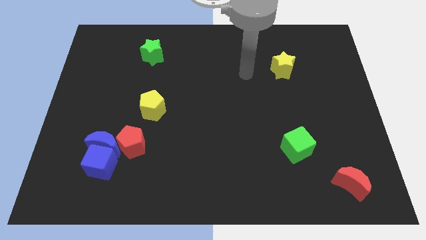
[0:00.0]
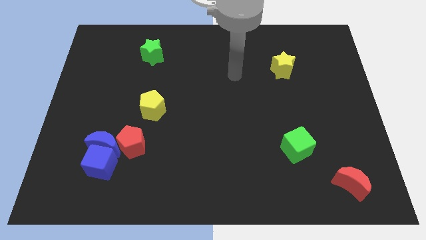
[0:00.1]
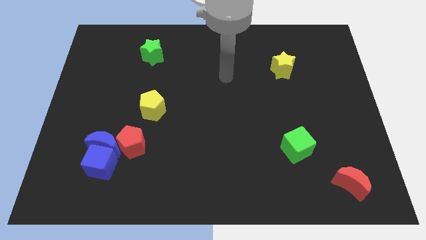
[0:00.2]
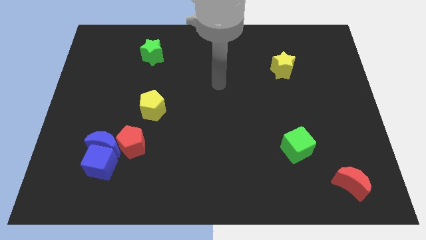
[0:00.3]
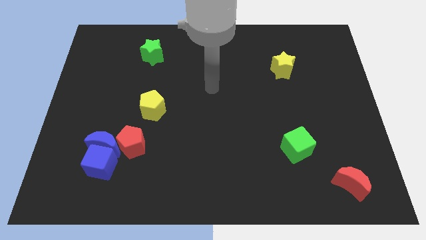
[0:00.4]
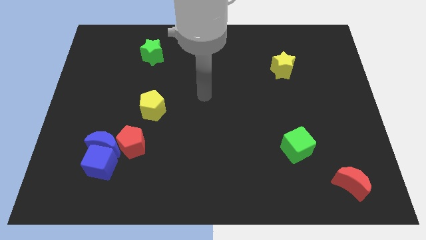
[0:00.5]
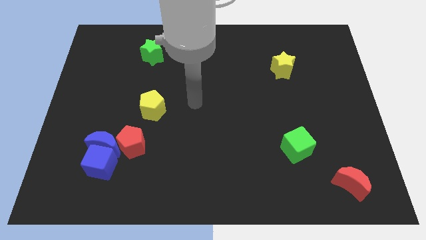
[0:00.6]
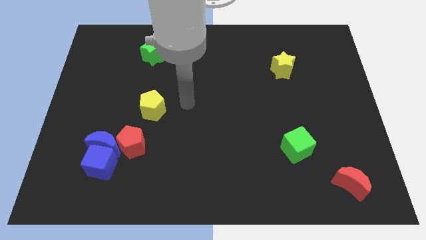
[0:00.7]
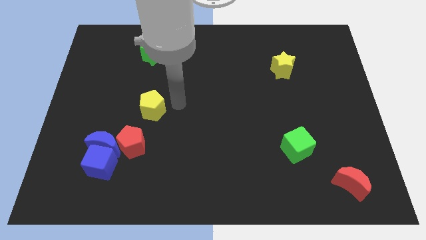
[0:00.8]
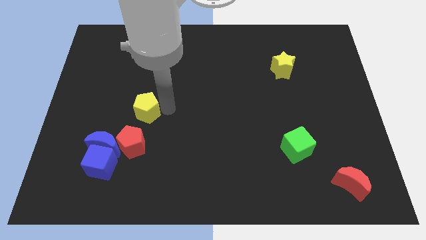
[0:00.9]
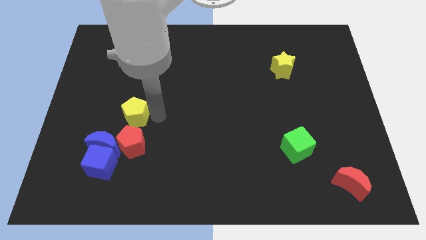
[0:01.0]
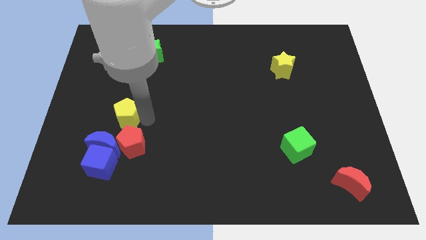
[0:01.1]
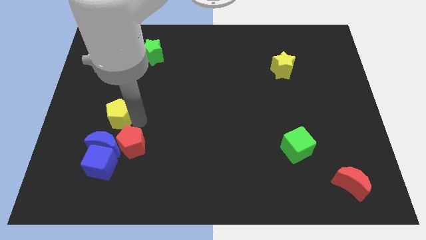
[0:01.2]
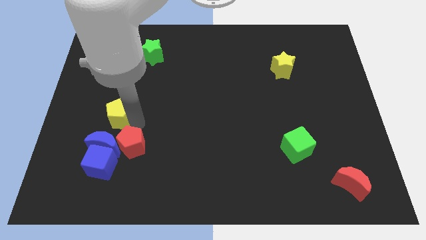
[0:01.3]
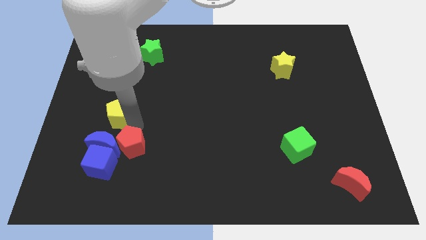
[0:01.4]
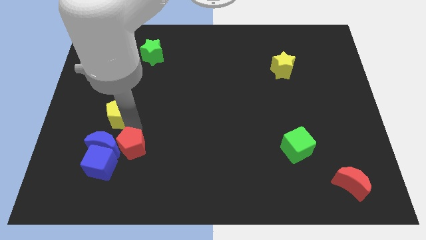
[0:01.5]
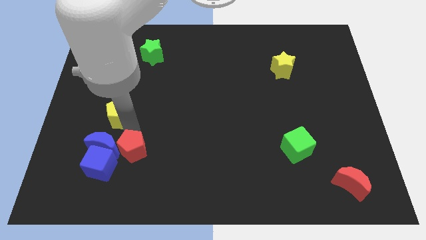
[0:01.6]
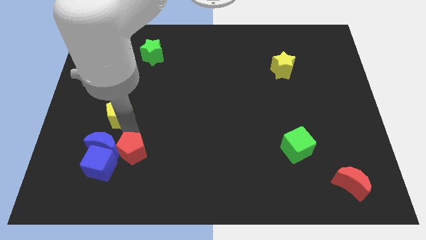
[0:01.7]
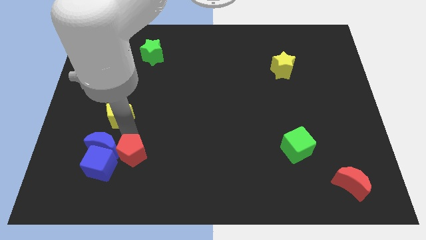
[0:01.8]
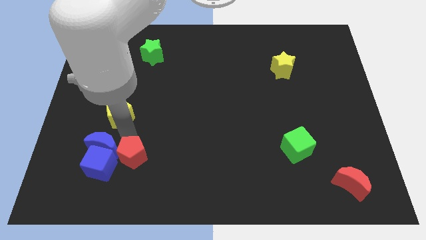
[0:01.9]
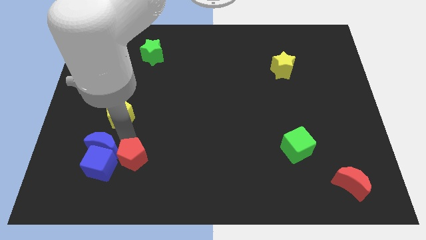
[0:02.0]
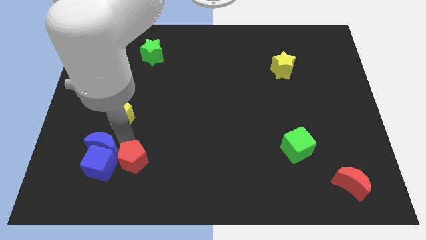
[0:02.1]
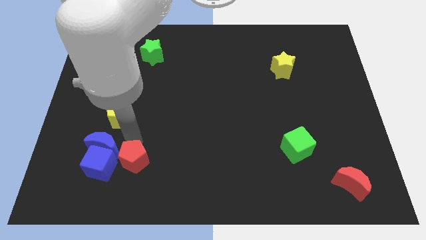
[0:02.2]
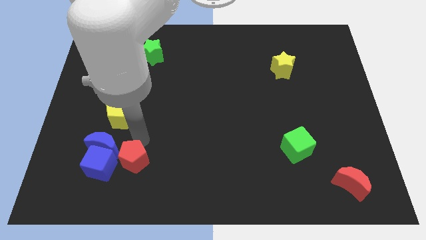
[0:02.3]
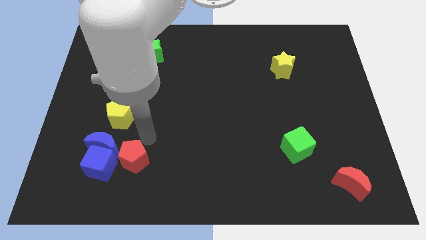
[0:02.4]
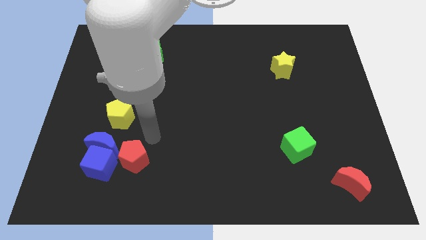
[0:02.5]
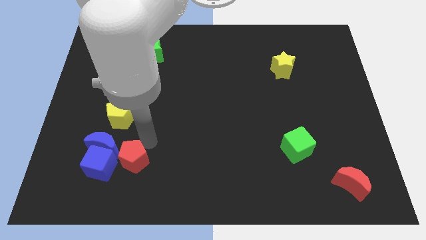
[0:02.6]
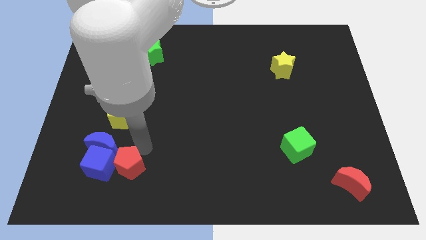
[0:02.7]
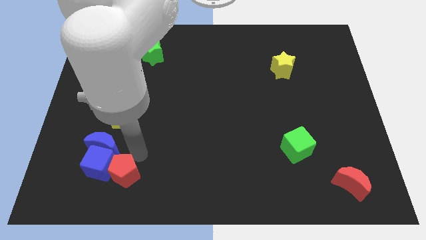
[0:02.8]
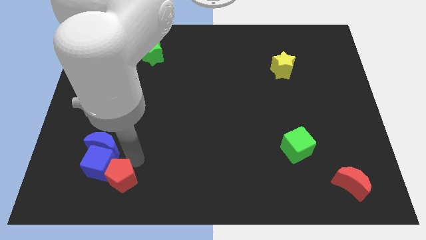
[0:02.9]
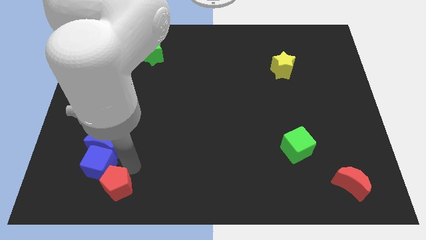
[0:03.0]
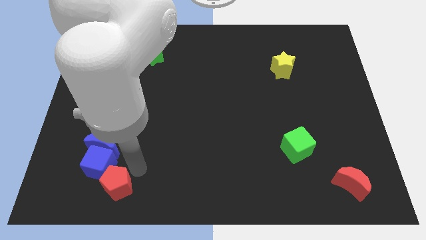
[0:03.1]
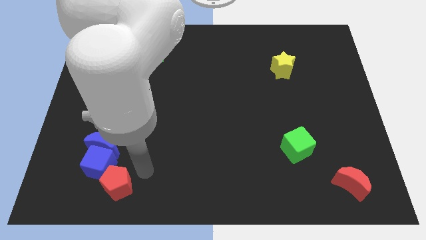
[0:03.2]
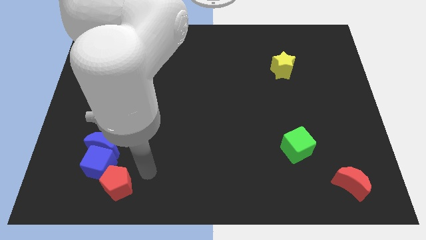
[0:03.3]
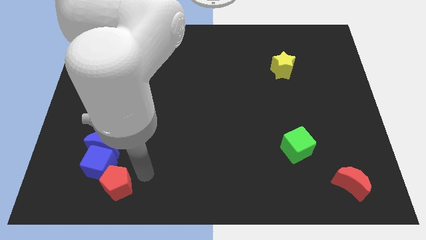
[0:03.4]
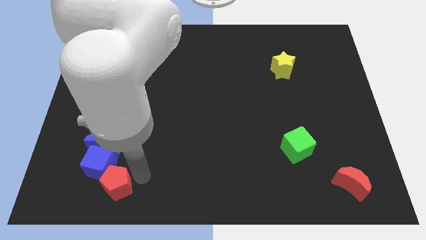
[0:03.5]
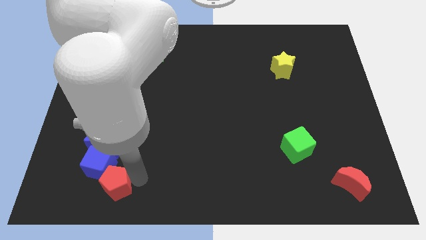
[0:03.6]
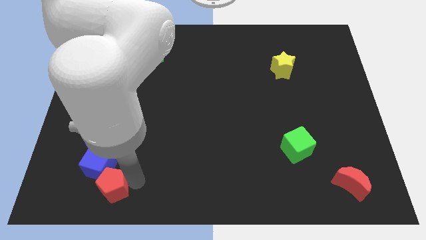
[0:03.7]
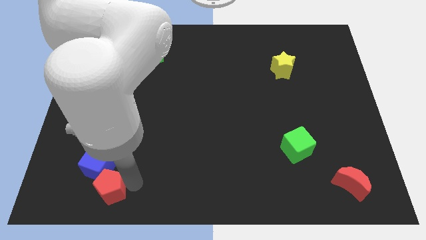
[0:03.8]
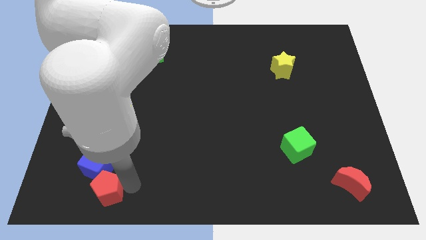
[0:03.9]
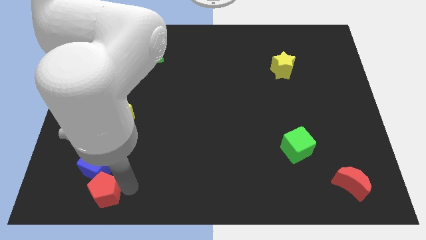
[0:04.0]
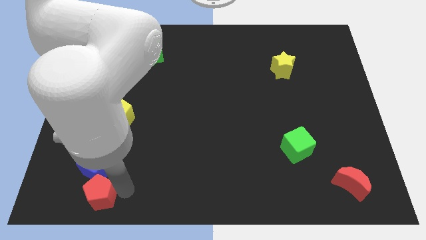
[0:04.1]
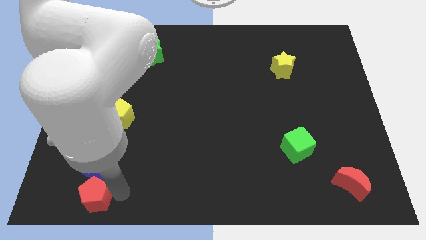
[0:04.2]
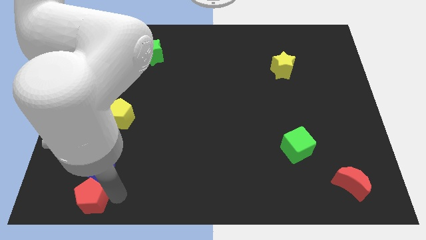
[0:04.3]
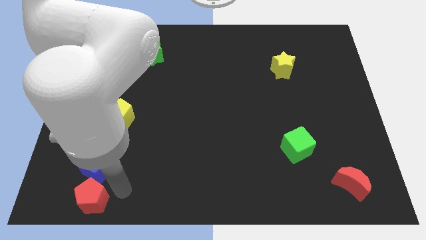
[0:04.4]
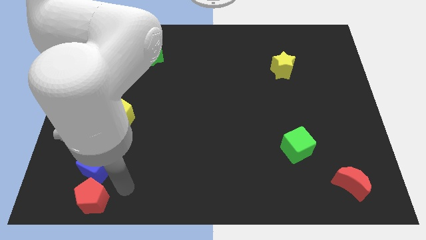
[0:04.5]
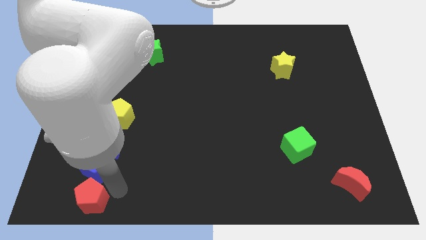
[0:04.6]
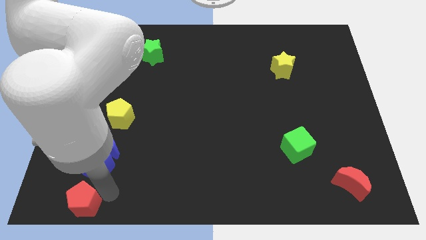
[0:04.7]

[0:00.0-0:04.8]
slide the red pentagon to the bottom left

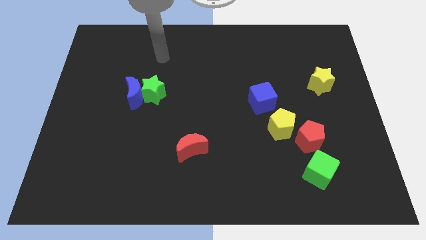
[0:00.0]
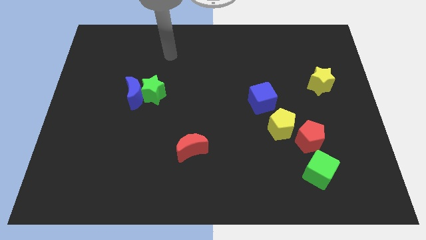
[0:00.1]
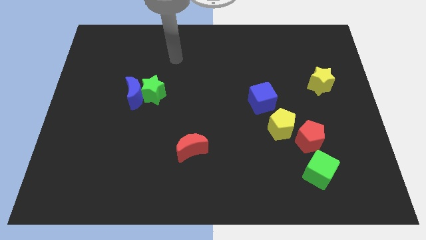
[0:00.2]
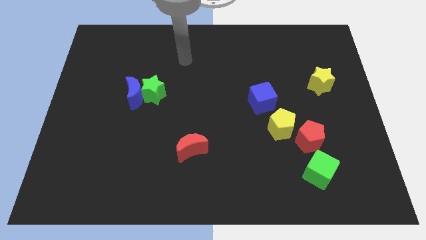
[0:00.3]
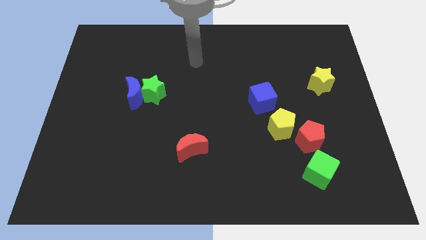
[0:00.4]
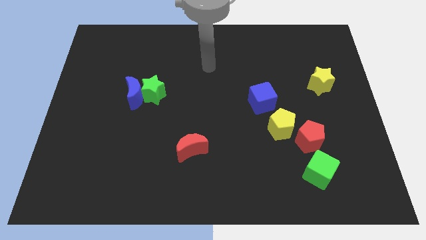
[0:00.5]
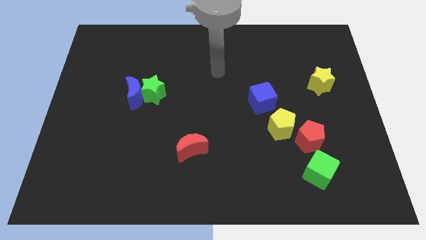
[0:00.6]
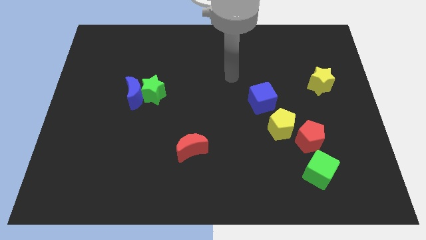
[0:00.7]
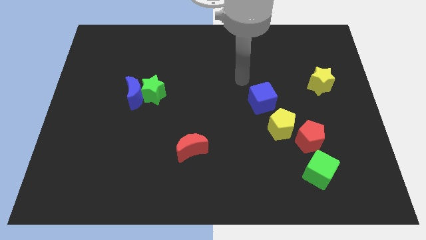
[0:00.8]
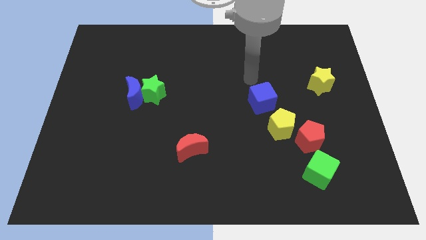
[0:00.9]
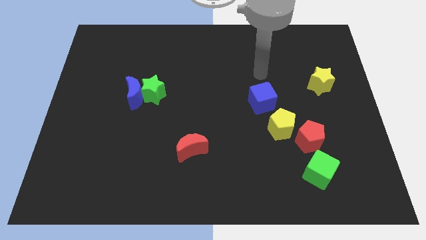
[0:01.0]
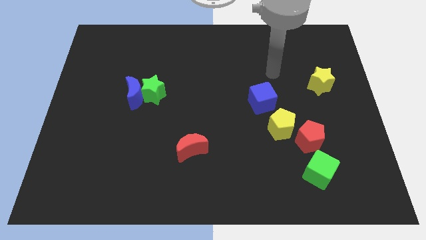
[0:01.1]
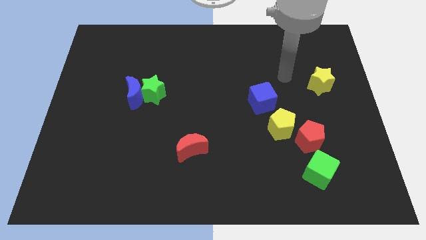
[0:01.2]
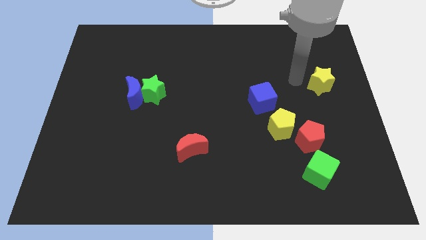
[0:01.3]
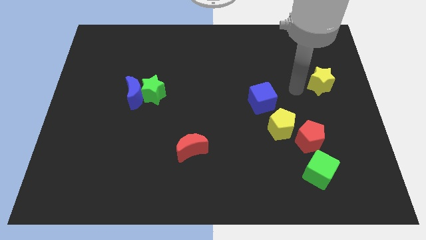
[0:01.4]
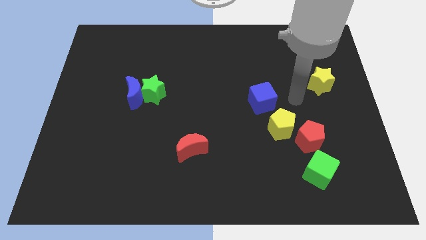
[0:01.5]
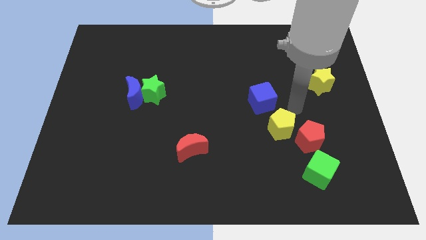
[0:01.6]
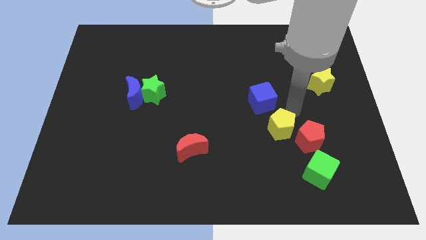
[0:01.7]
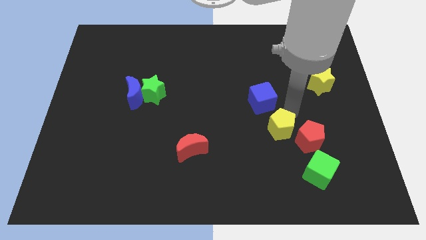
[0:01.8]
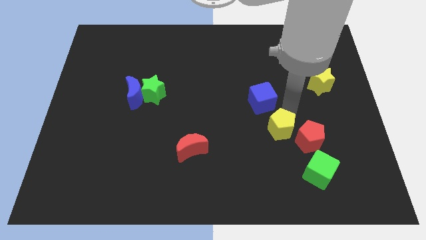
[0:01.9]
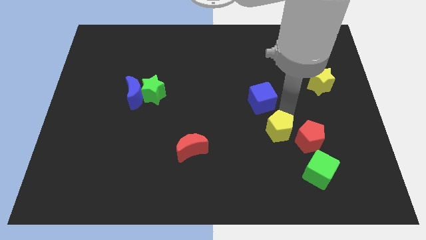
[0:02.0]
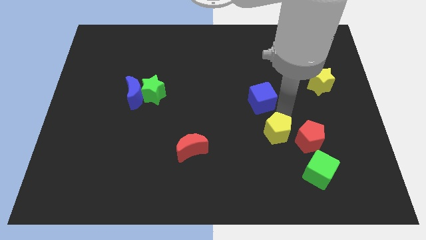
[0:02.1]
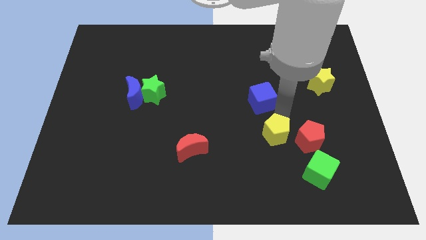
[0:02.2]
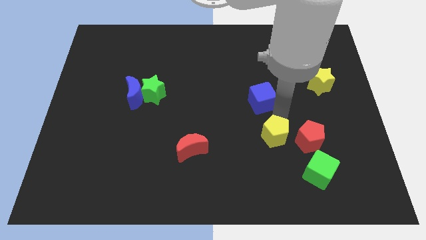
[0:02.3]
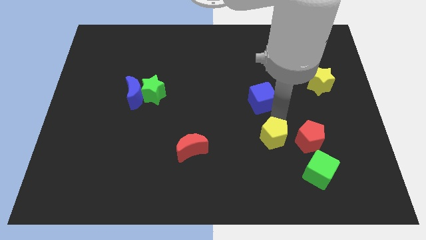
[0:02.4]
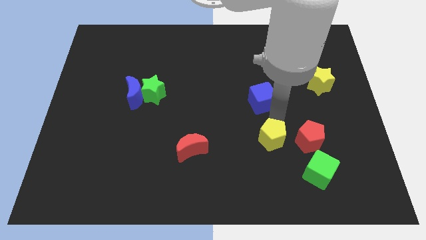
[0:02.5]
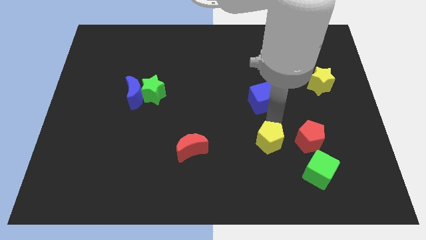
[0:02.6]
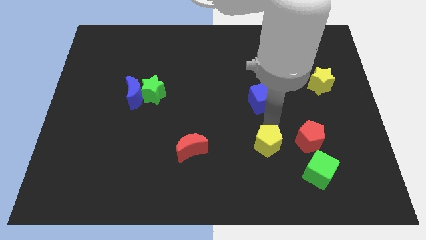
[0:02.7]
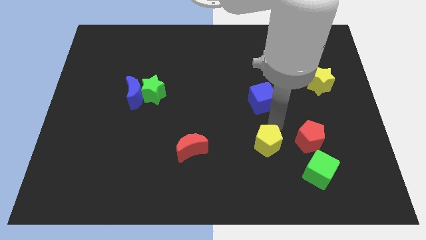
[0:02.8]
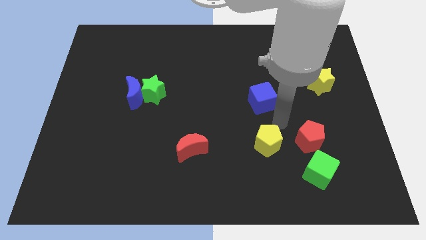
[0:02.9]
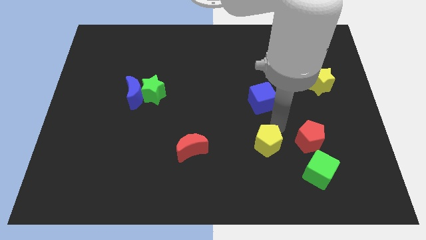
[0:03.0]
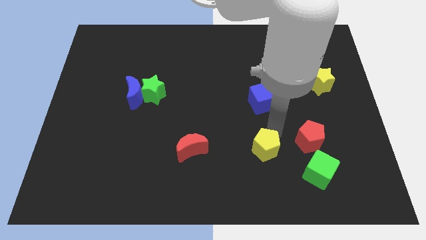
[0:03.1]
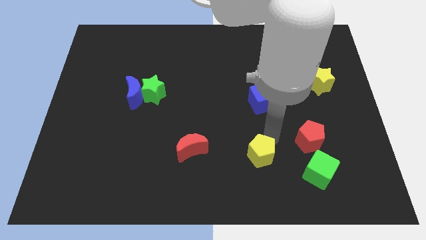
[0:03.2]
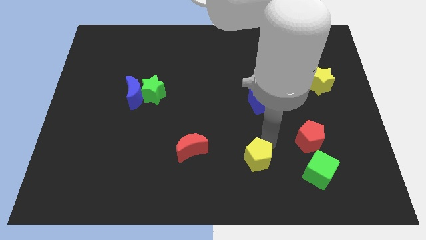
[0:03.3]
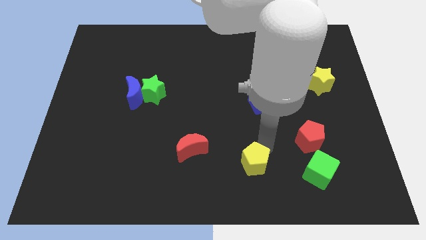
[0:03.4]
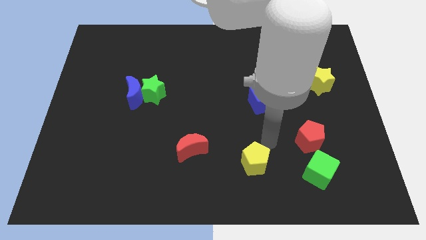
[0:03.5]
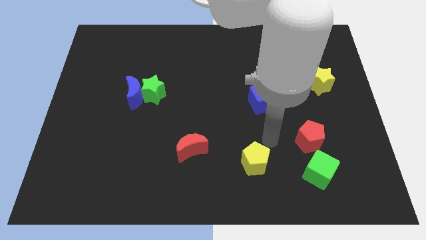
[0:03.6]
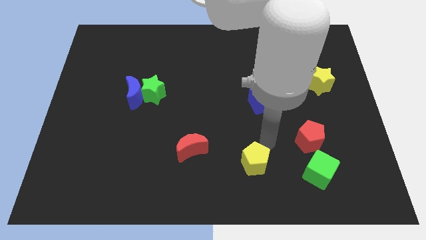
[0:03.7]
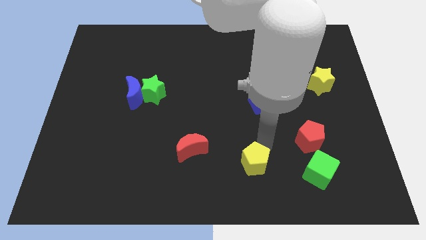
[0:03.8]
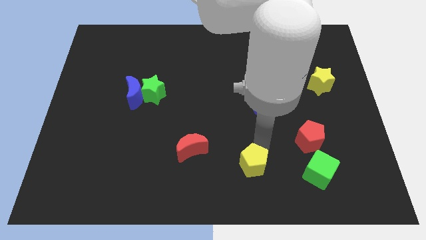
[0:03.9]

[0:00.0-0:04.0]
move the yellow pentagon to the bottom side
